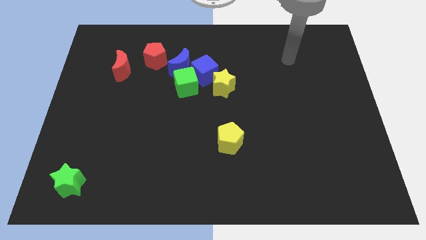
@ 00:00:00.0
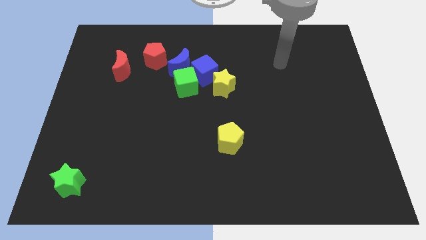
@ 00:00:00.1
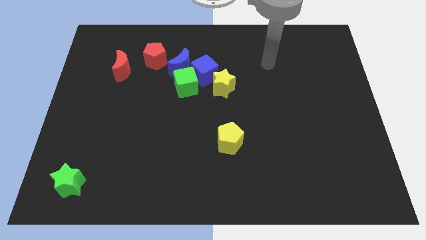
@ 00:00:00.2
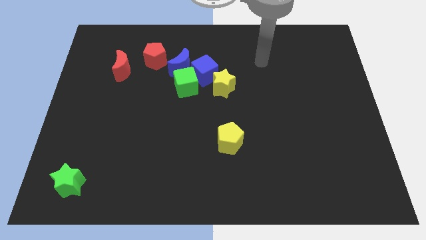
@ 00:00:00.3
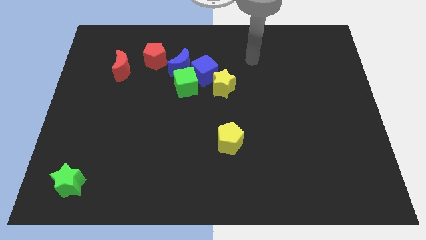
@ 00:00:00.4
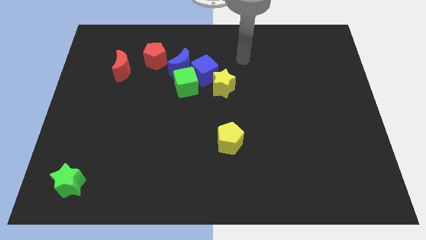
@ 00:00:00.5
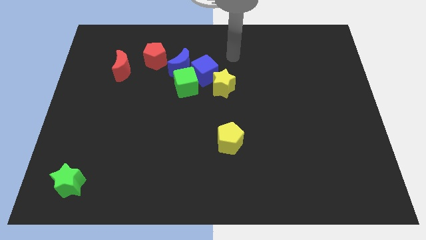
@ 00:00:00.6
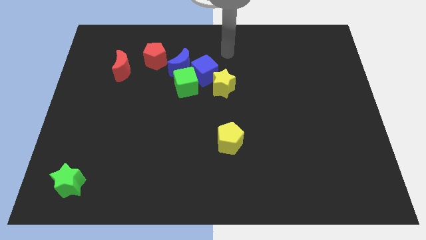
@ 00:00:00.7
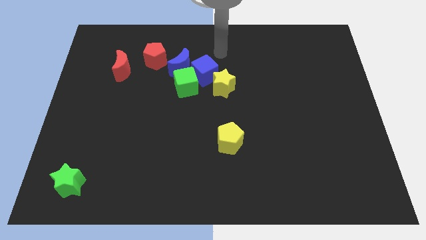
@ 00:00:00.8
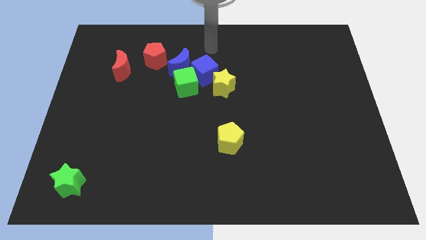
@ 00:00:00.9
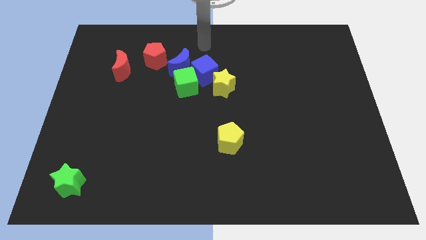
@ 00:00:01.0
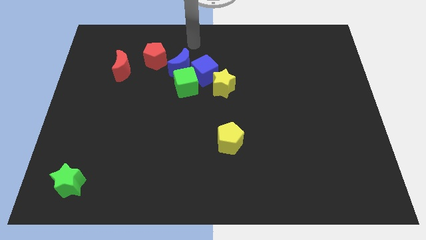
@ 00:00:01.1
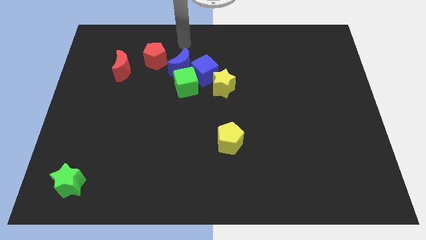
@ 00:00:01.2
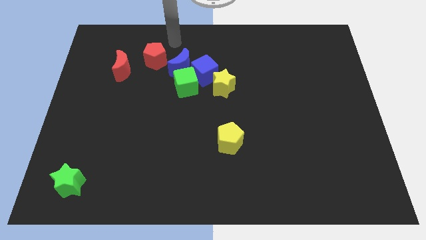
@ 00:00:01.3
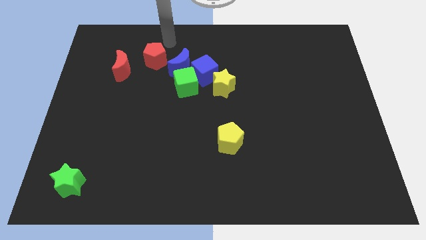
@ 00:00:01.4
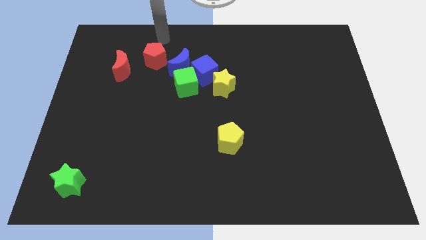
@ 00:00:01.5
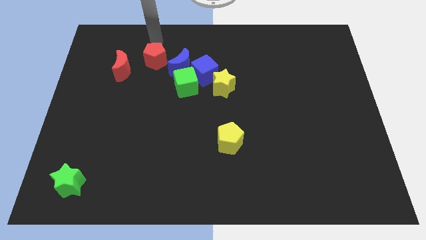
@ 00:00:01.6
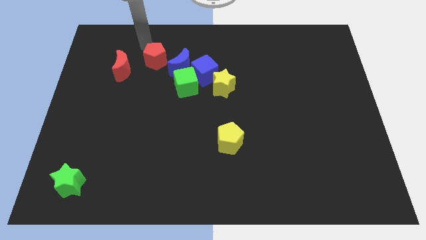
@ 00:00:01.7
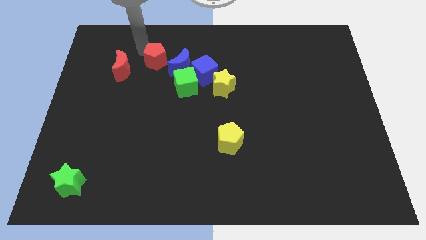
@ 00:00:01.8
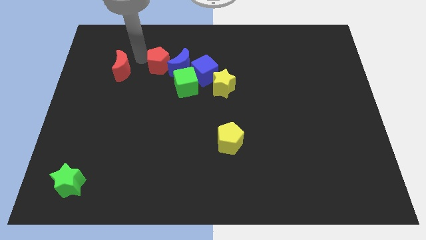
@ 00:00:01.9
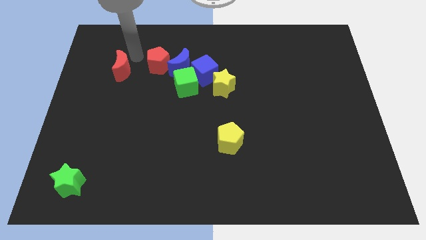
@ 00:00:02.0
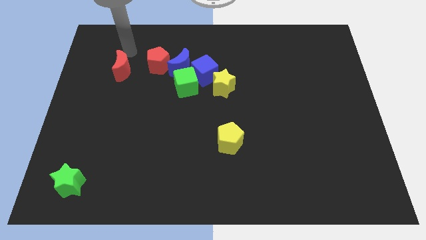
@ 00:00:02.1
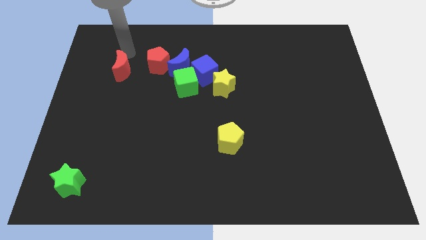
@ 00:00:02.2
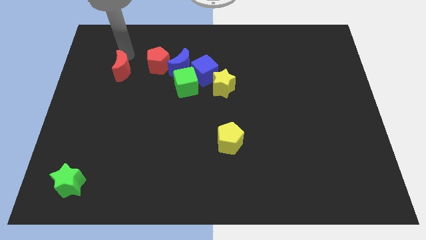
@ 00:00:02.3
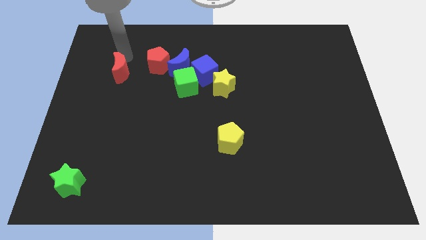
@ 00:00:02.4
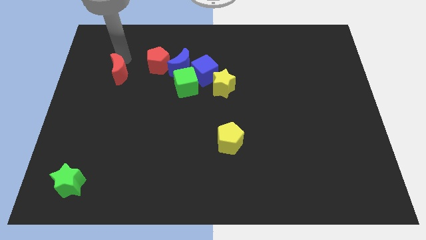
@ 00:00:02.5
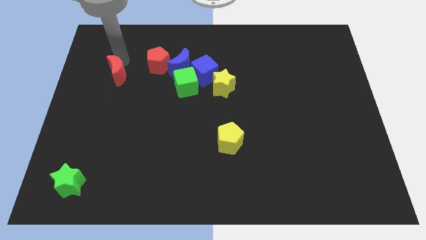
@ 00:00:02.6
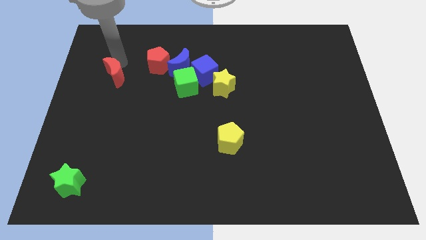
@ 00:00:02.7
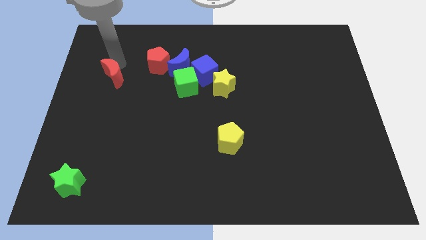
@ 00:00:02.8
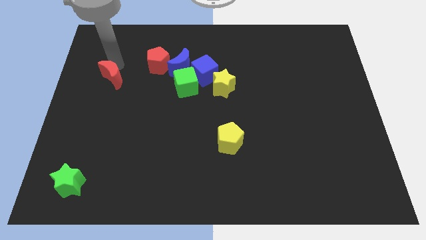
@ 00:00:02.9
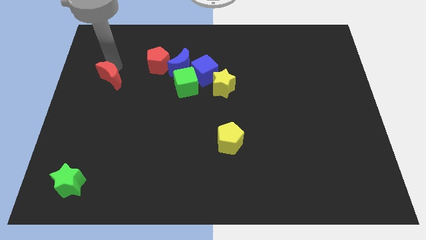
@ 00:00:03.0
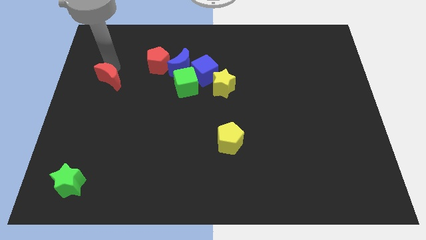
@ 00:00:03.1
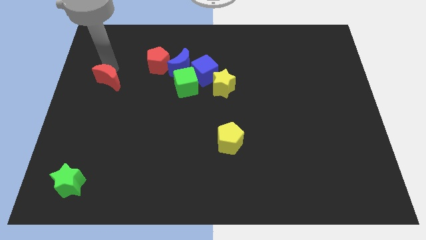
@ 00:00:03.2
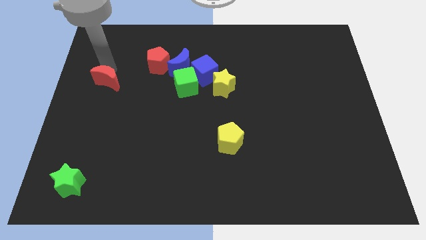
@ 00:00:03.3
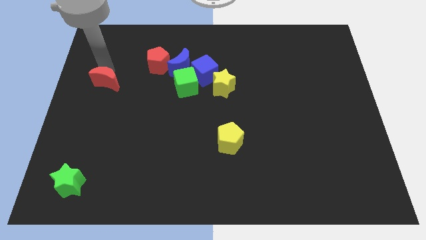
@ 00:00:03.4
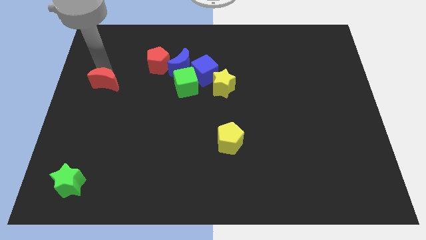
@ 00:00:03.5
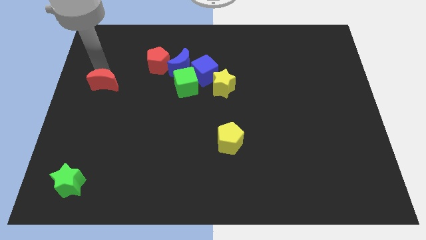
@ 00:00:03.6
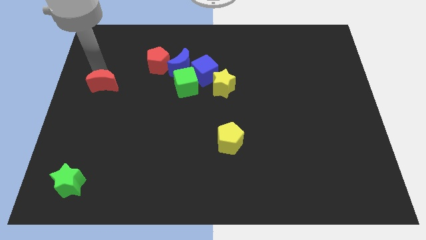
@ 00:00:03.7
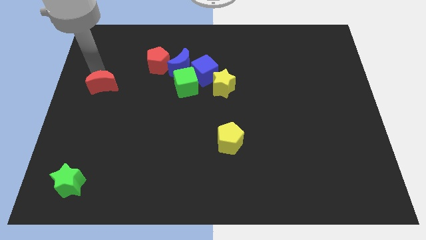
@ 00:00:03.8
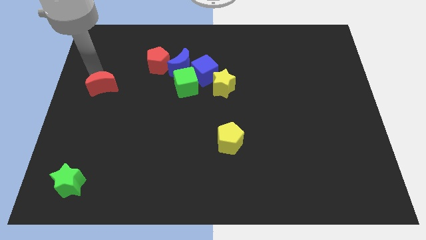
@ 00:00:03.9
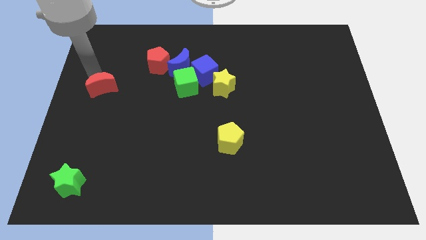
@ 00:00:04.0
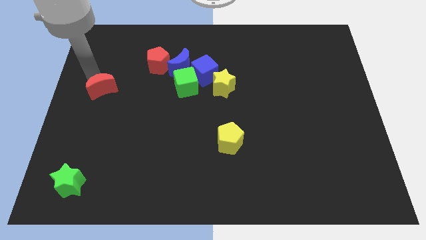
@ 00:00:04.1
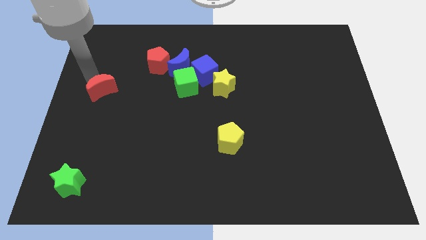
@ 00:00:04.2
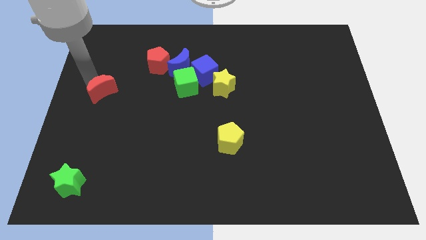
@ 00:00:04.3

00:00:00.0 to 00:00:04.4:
slightly move the red moon downwards

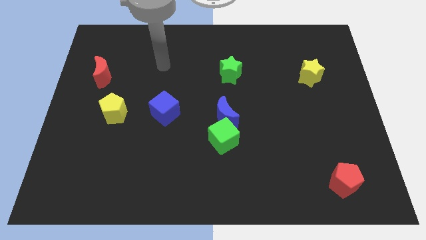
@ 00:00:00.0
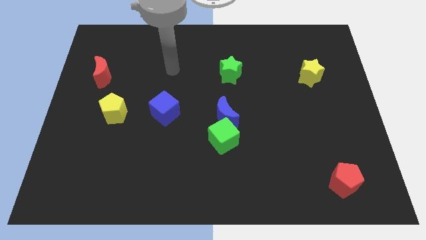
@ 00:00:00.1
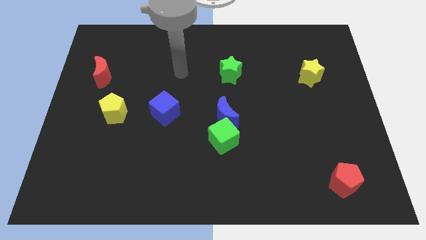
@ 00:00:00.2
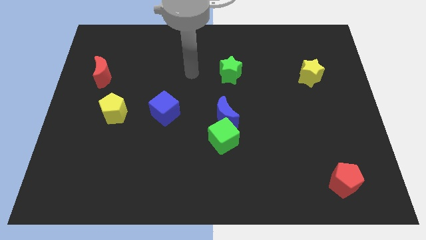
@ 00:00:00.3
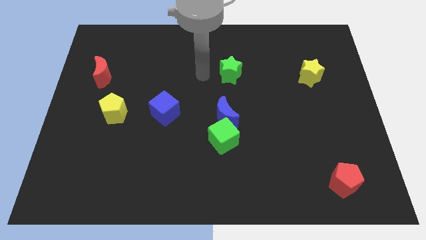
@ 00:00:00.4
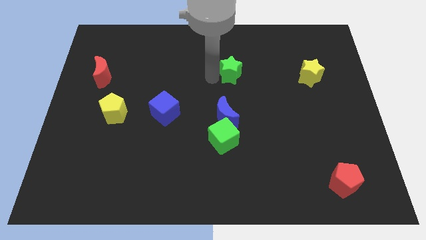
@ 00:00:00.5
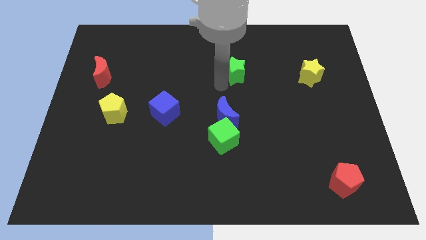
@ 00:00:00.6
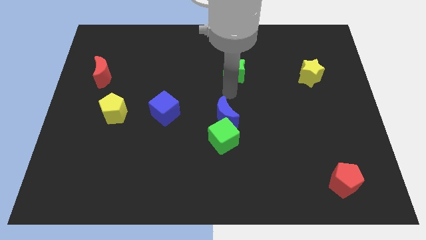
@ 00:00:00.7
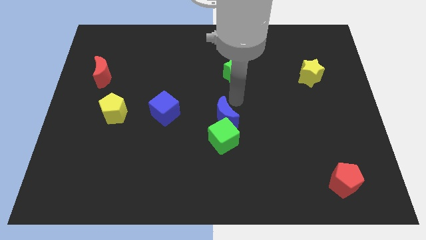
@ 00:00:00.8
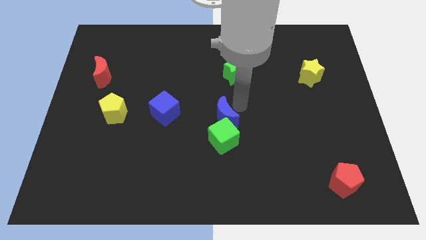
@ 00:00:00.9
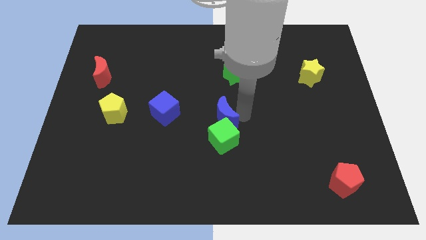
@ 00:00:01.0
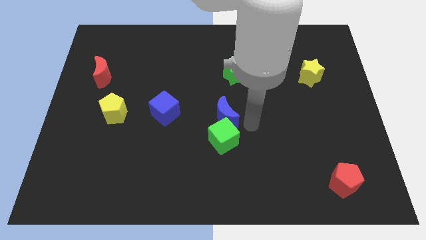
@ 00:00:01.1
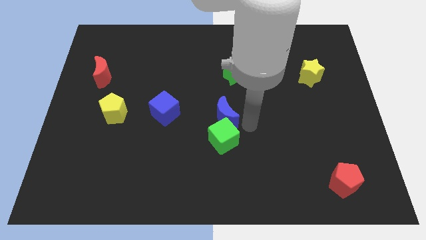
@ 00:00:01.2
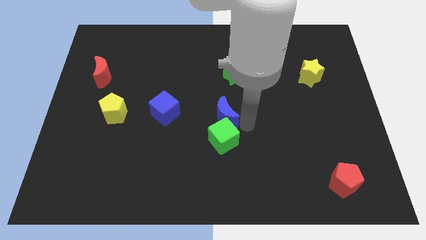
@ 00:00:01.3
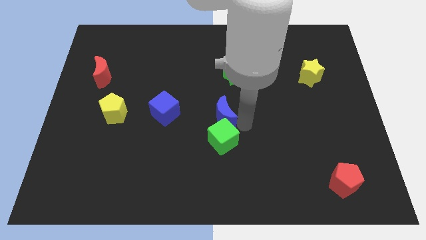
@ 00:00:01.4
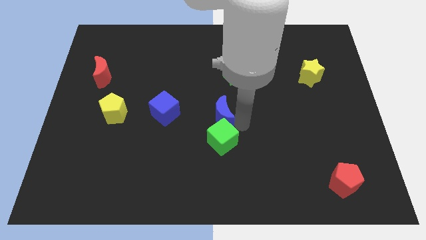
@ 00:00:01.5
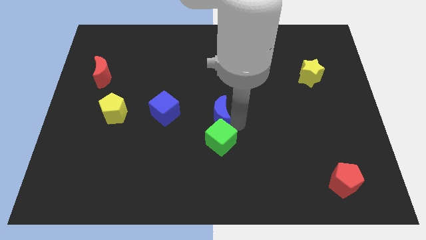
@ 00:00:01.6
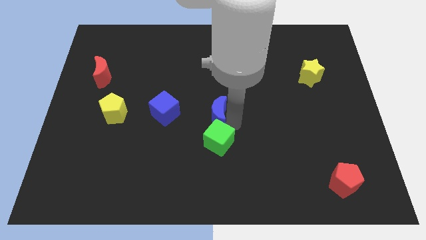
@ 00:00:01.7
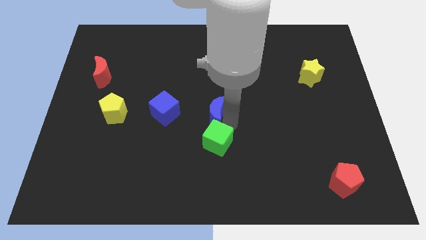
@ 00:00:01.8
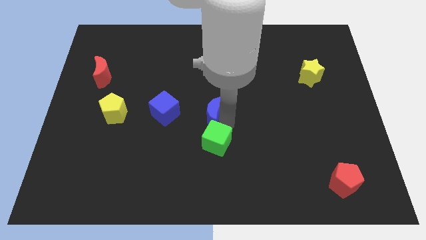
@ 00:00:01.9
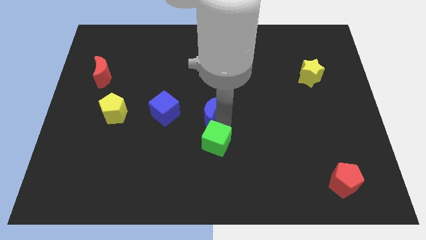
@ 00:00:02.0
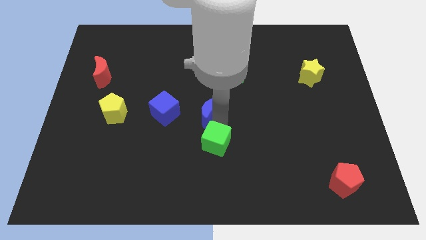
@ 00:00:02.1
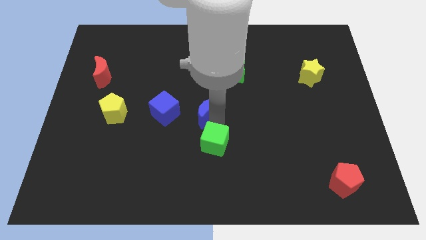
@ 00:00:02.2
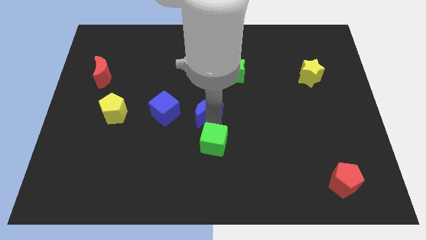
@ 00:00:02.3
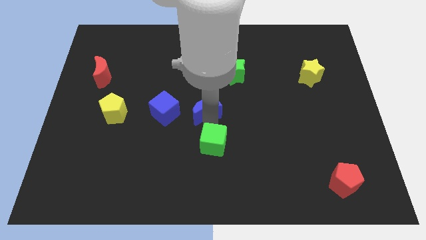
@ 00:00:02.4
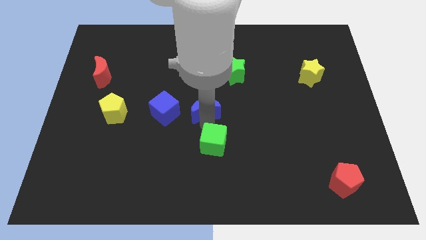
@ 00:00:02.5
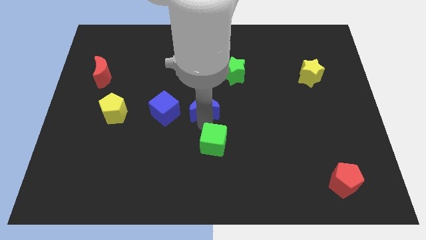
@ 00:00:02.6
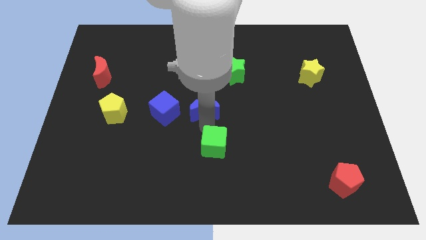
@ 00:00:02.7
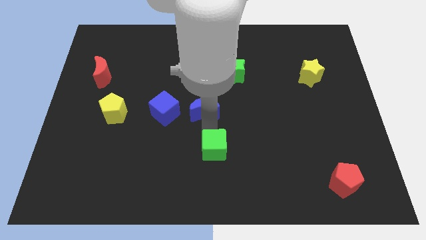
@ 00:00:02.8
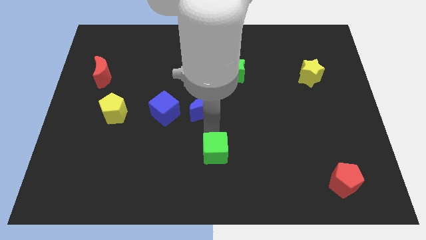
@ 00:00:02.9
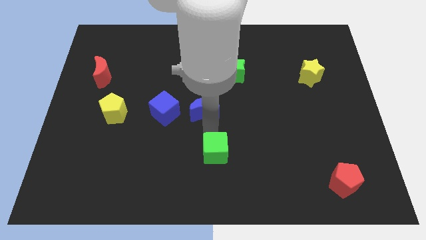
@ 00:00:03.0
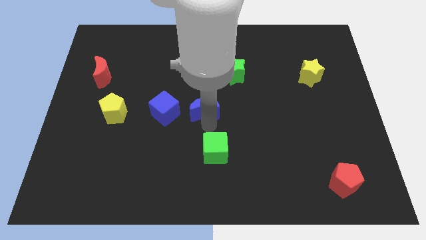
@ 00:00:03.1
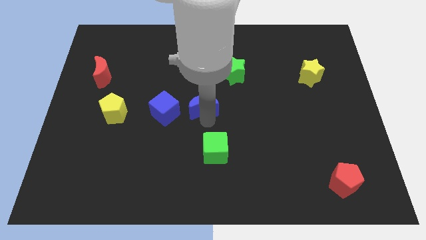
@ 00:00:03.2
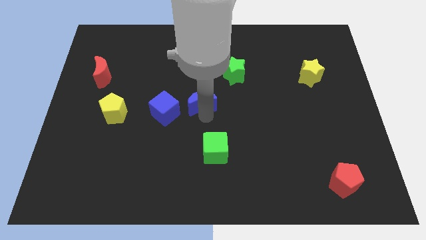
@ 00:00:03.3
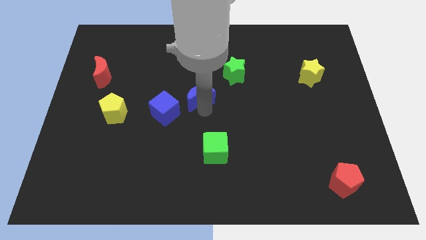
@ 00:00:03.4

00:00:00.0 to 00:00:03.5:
slide the blue moon a little upwards and to the left
